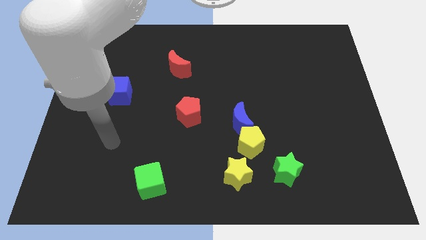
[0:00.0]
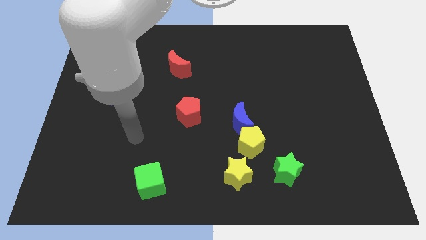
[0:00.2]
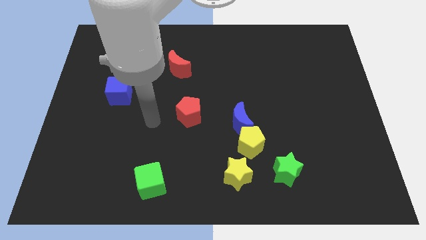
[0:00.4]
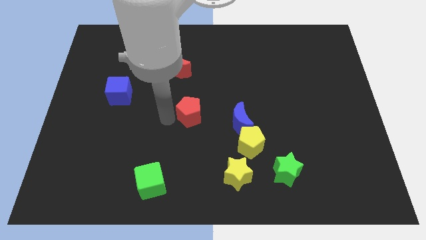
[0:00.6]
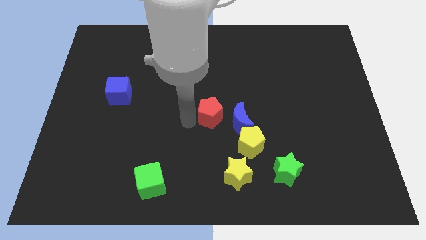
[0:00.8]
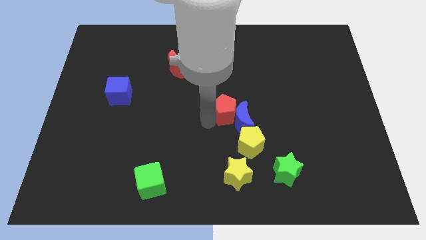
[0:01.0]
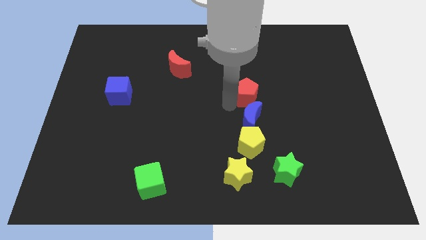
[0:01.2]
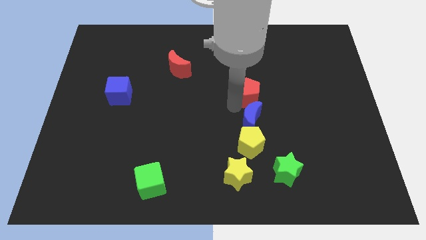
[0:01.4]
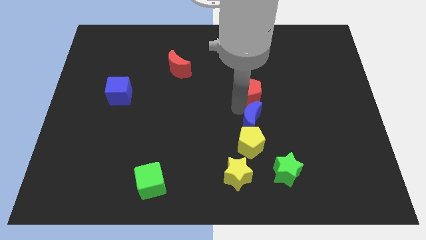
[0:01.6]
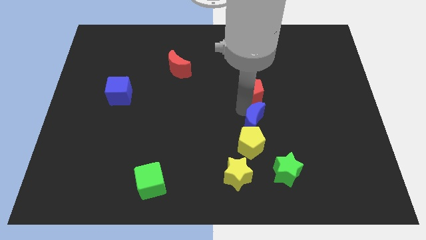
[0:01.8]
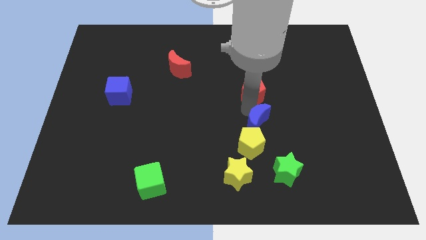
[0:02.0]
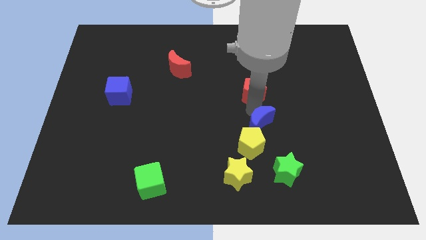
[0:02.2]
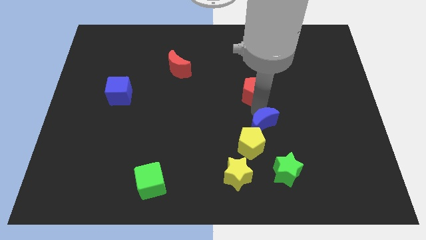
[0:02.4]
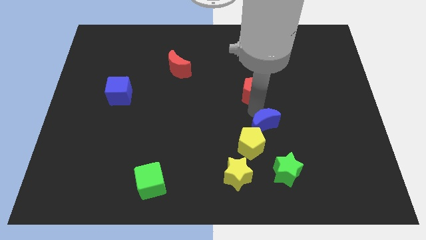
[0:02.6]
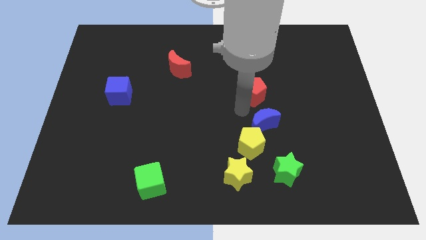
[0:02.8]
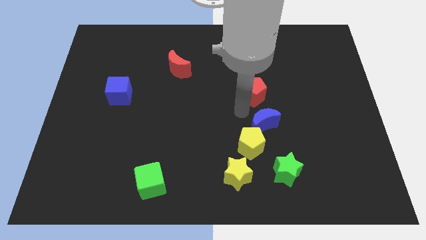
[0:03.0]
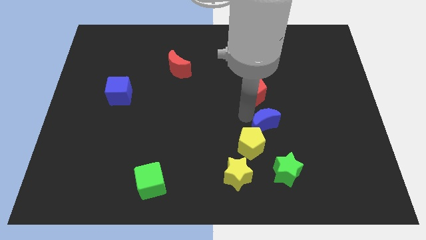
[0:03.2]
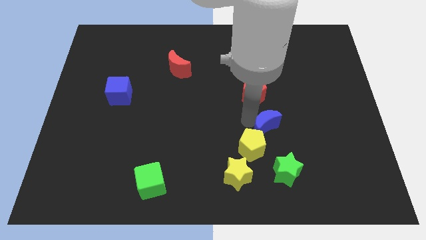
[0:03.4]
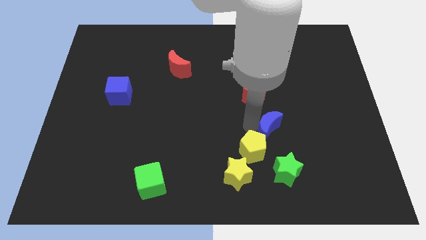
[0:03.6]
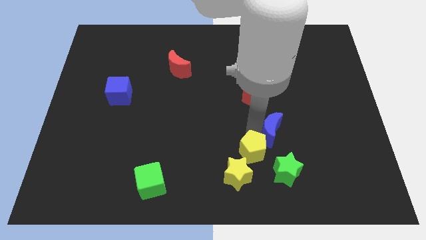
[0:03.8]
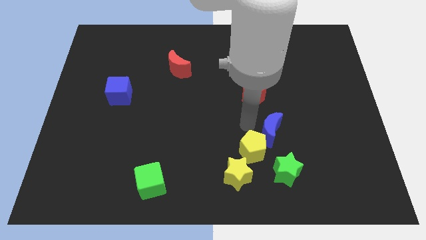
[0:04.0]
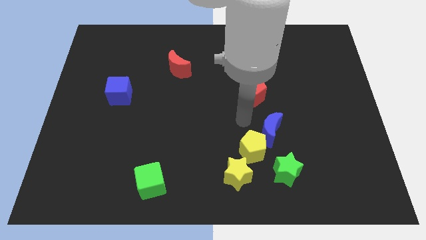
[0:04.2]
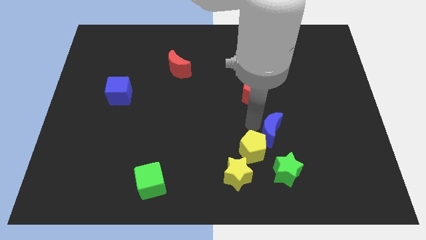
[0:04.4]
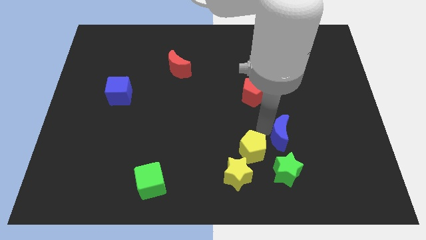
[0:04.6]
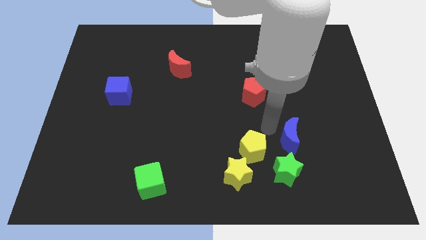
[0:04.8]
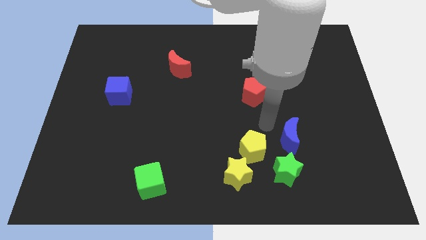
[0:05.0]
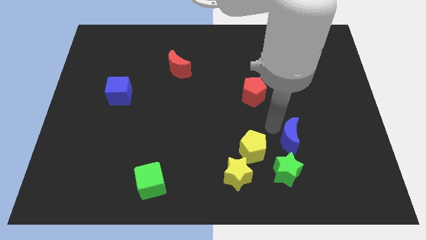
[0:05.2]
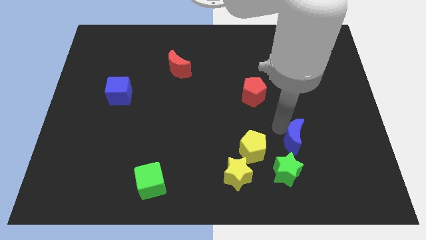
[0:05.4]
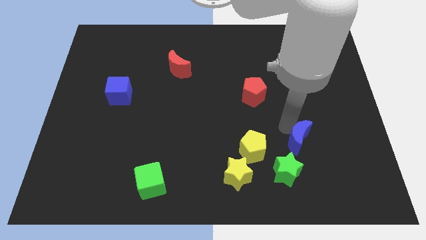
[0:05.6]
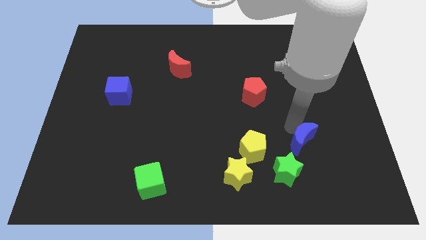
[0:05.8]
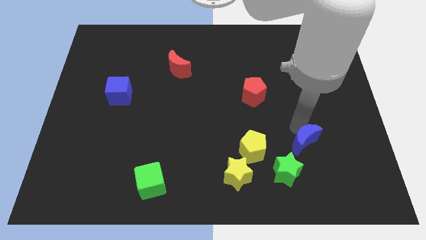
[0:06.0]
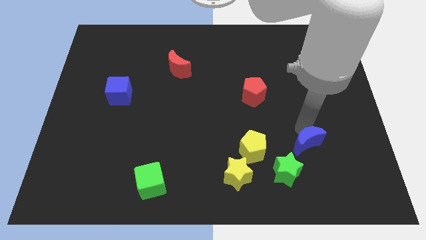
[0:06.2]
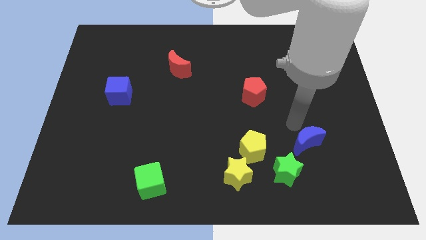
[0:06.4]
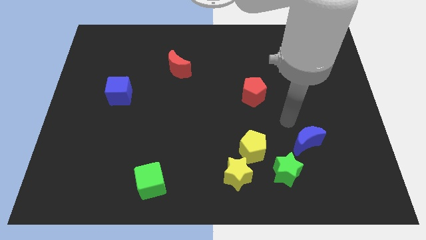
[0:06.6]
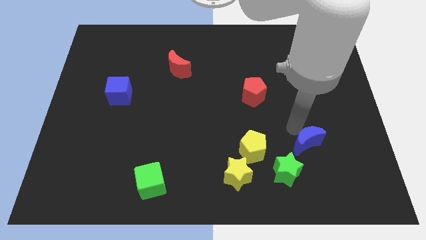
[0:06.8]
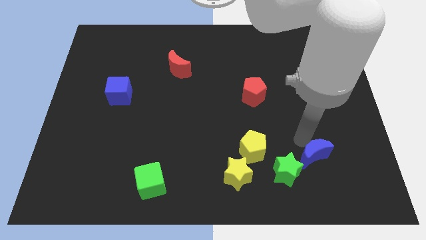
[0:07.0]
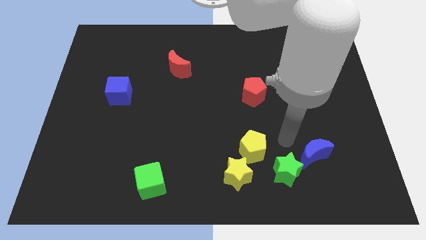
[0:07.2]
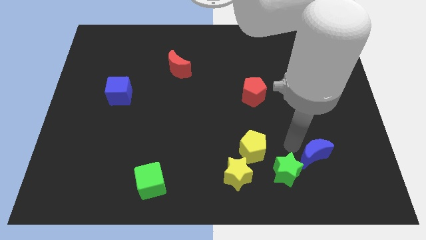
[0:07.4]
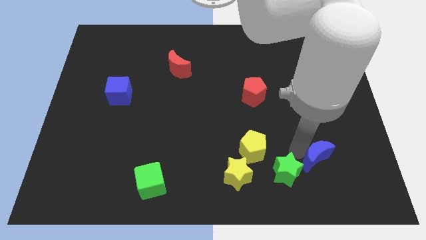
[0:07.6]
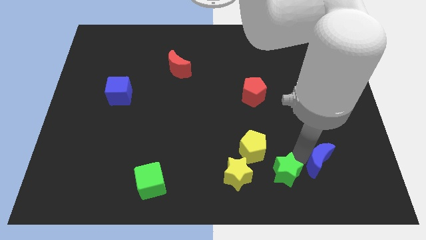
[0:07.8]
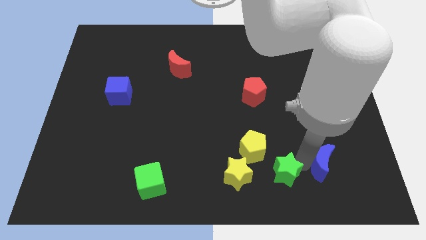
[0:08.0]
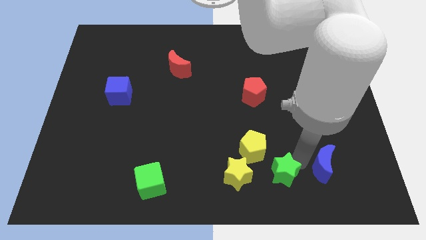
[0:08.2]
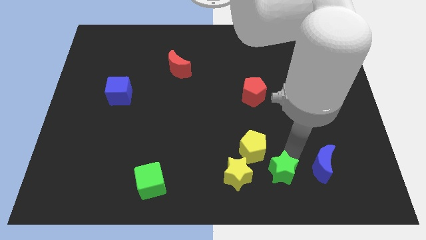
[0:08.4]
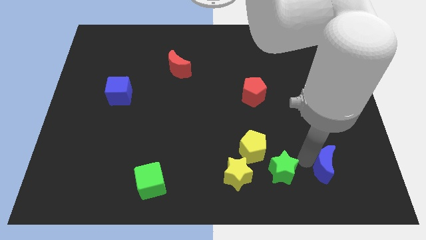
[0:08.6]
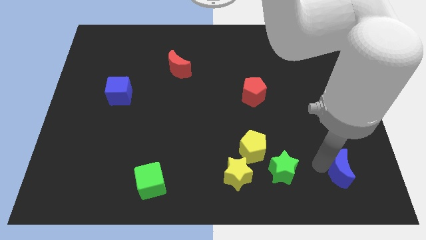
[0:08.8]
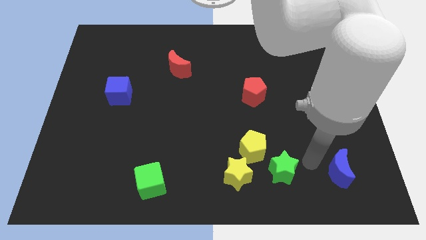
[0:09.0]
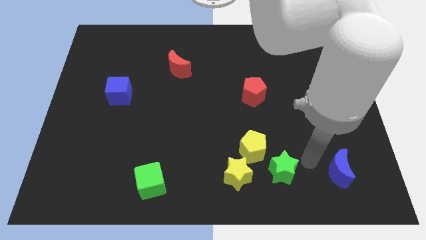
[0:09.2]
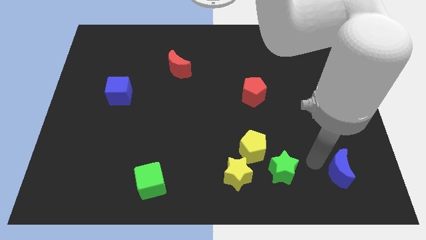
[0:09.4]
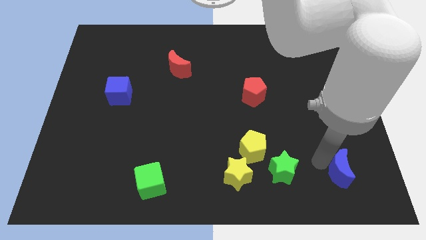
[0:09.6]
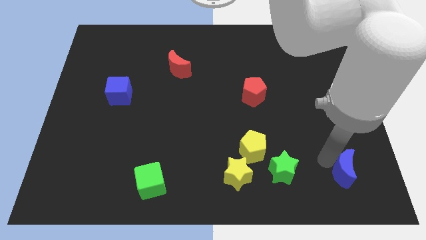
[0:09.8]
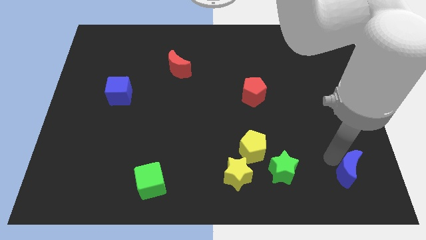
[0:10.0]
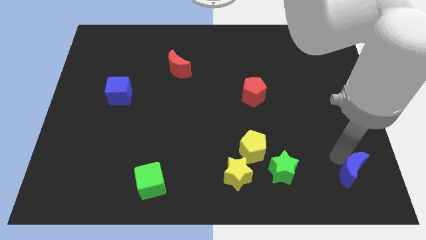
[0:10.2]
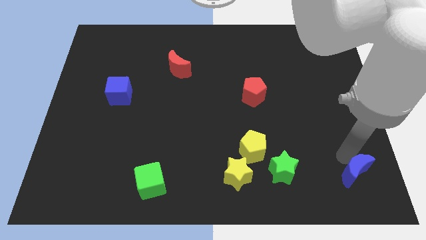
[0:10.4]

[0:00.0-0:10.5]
put the blue moon to the lower right corner

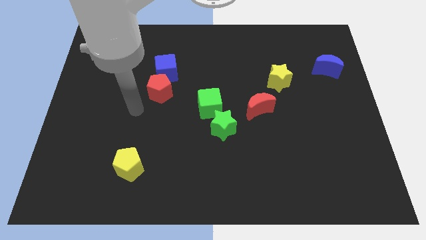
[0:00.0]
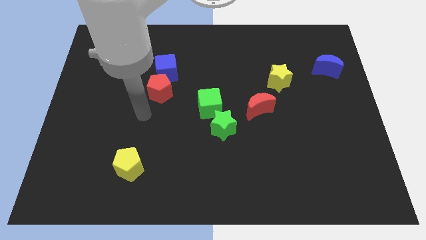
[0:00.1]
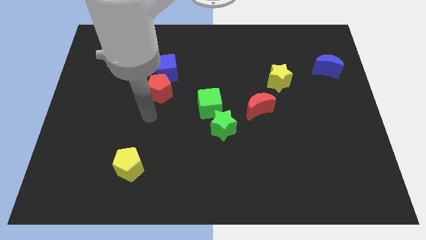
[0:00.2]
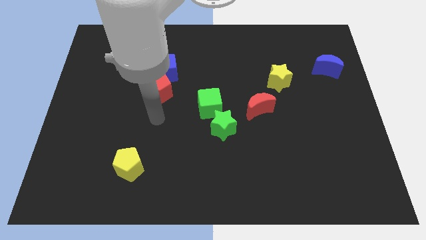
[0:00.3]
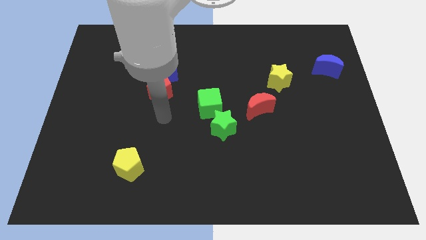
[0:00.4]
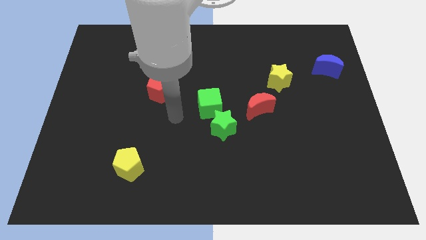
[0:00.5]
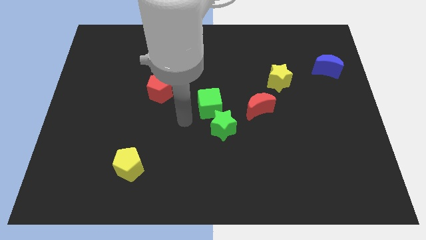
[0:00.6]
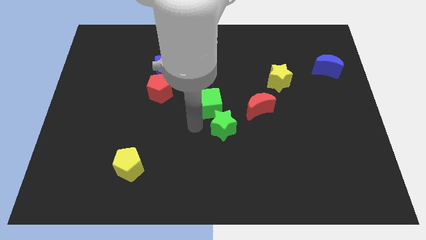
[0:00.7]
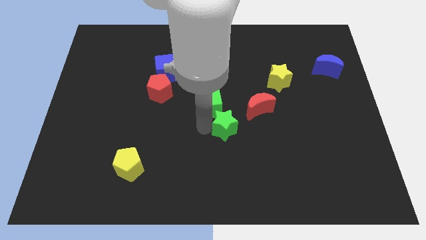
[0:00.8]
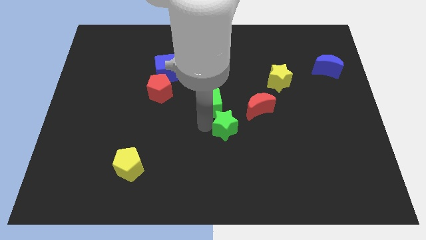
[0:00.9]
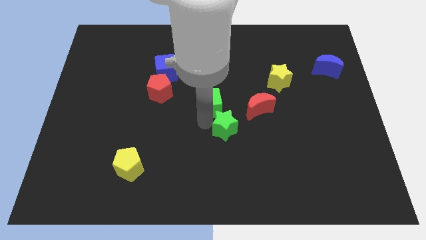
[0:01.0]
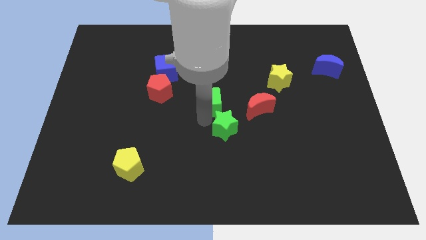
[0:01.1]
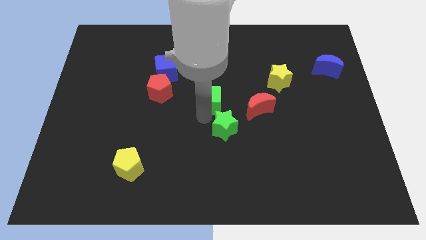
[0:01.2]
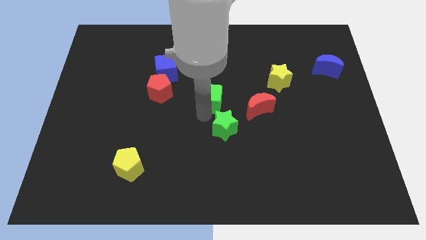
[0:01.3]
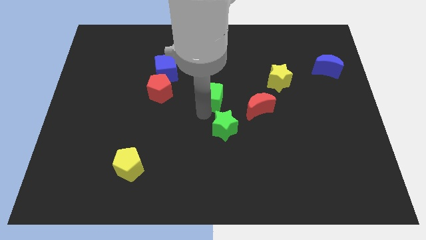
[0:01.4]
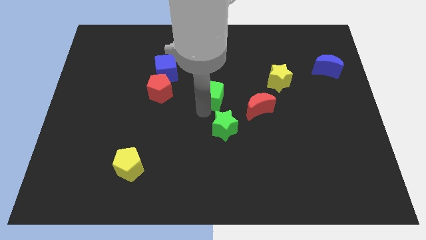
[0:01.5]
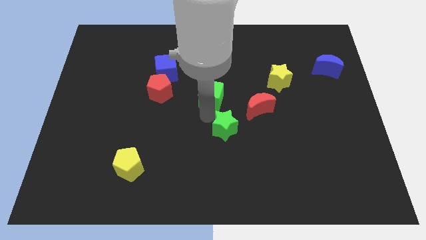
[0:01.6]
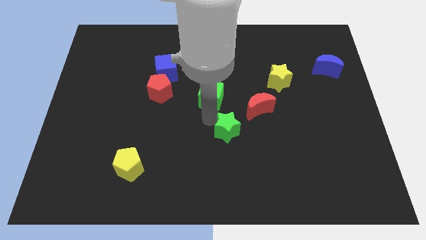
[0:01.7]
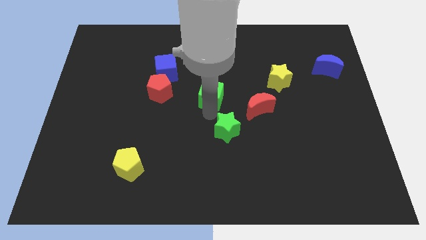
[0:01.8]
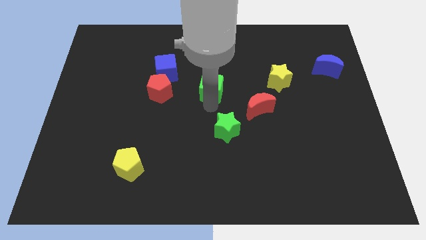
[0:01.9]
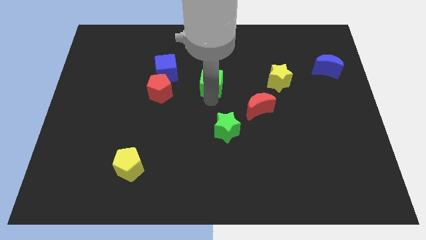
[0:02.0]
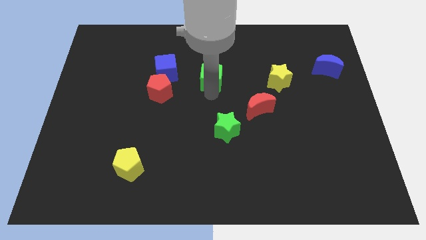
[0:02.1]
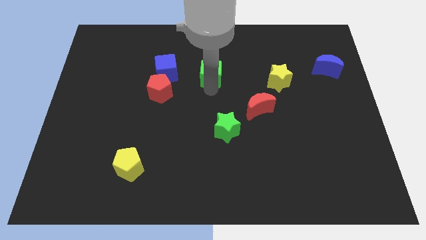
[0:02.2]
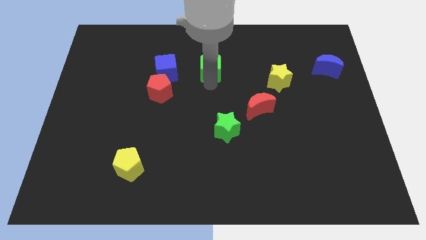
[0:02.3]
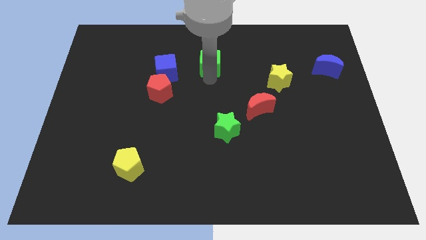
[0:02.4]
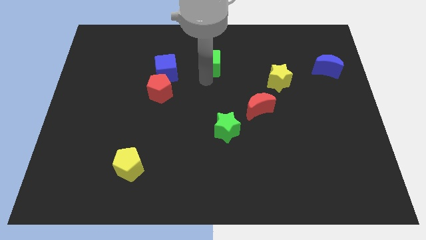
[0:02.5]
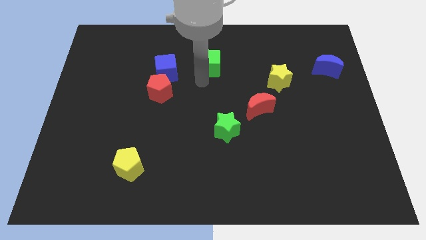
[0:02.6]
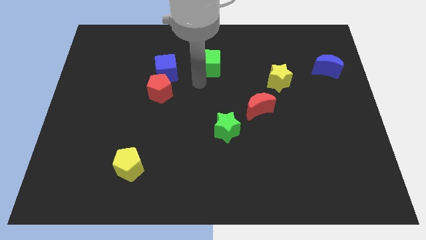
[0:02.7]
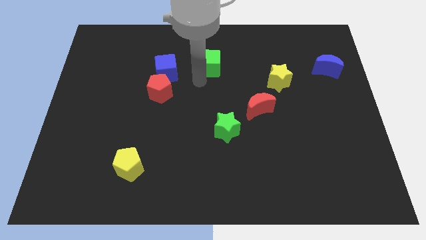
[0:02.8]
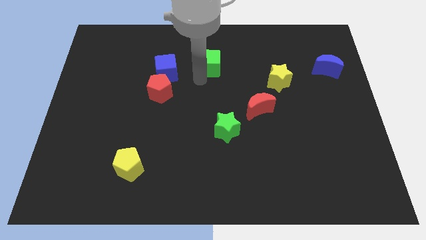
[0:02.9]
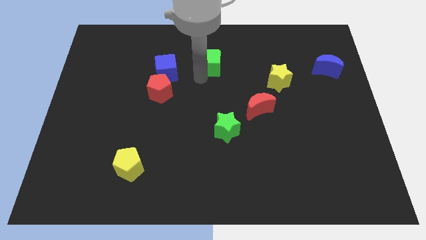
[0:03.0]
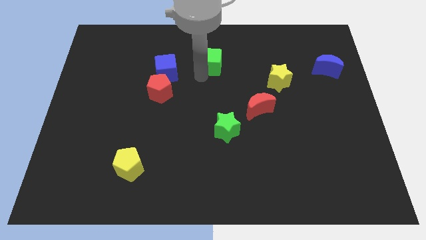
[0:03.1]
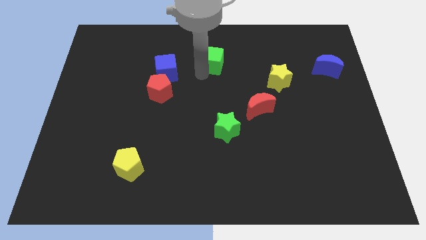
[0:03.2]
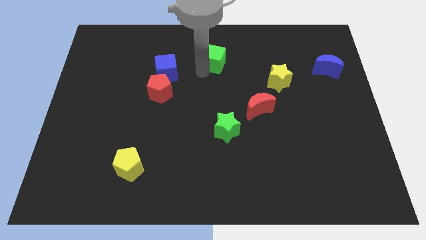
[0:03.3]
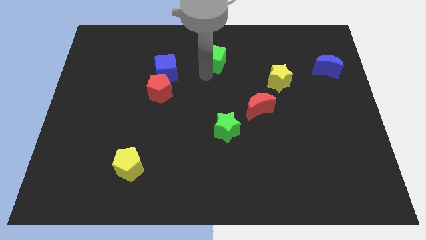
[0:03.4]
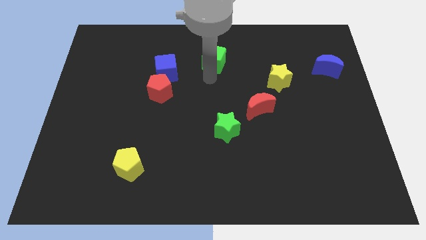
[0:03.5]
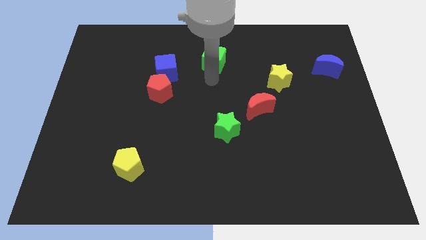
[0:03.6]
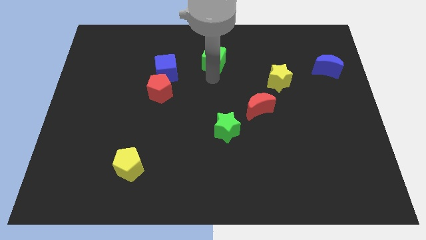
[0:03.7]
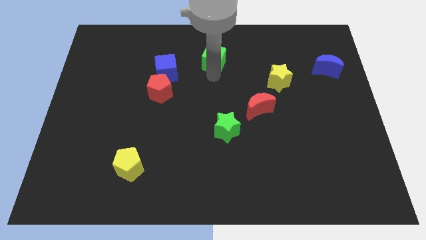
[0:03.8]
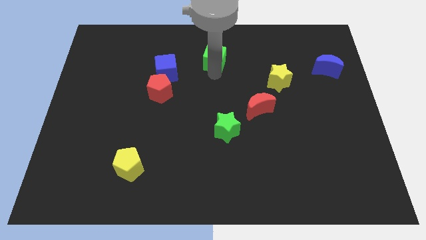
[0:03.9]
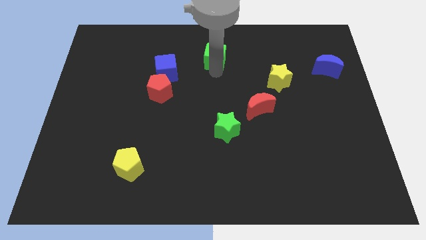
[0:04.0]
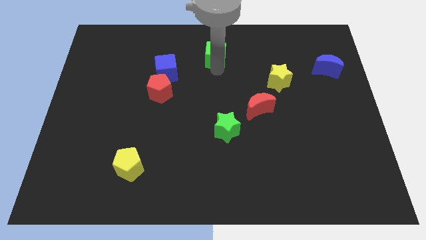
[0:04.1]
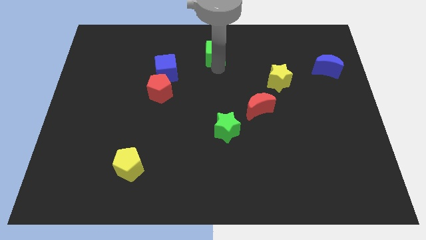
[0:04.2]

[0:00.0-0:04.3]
put the green cube to the top side
